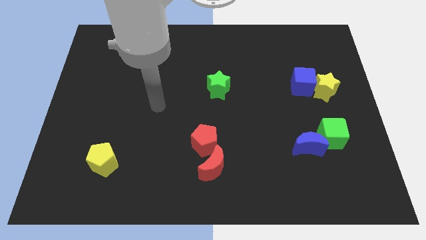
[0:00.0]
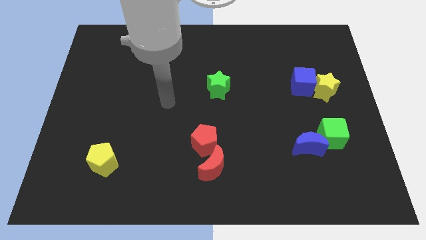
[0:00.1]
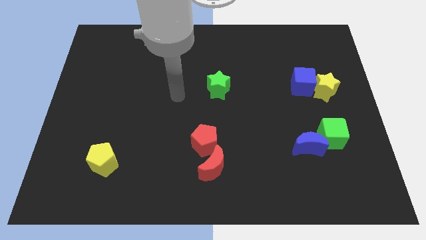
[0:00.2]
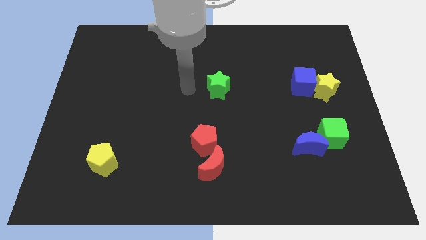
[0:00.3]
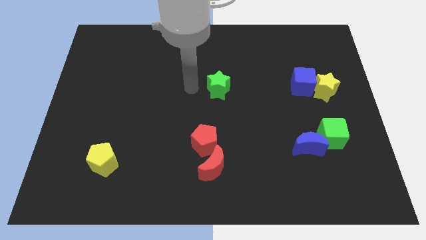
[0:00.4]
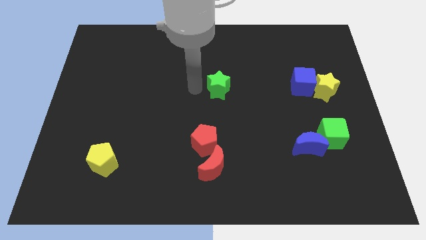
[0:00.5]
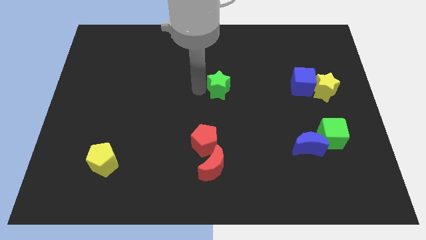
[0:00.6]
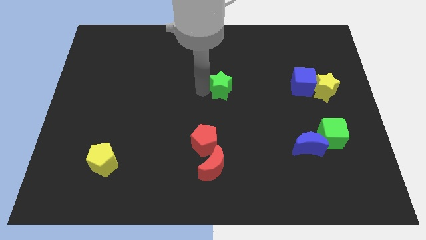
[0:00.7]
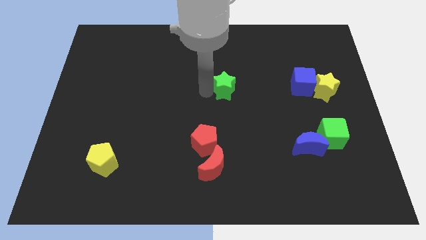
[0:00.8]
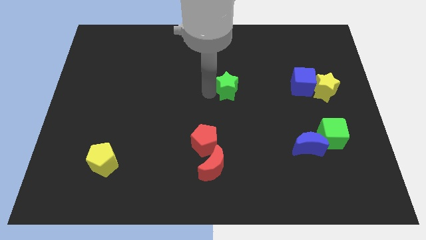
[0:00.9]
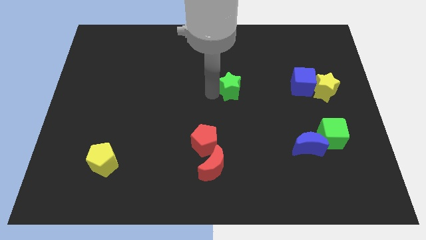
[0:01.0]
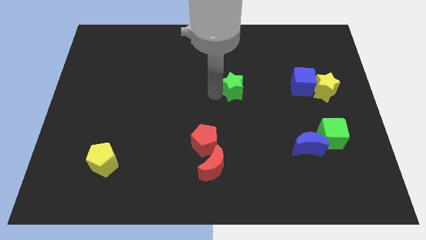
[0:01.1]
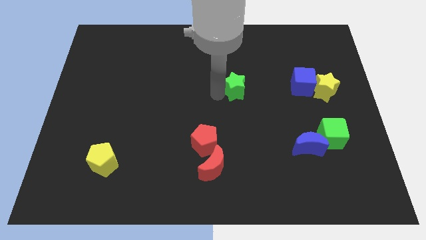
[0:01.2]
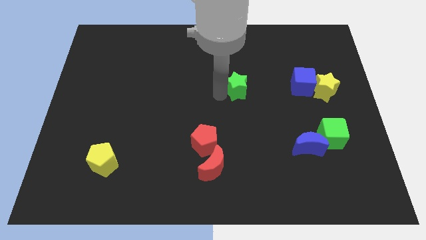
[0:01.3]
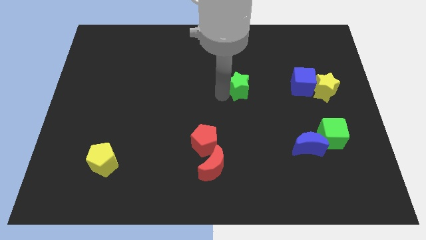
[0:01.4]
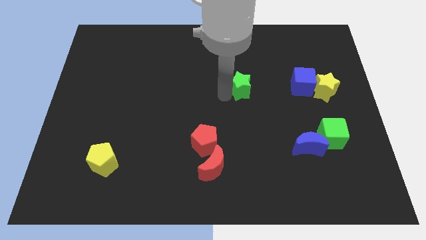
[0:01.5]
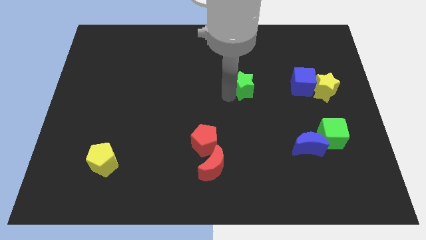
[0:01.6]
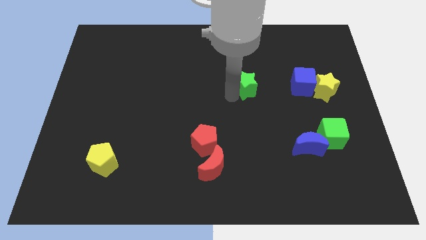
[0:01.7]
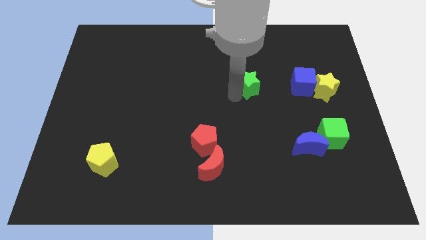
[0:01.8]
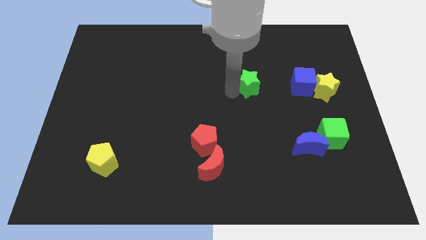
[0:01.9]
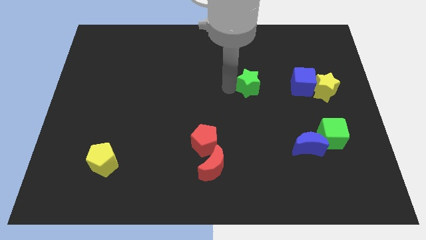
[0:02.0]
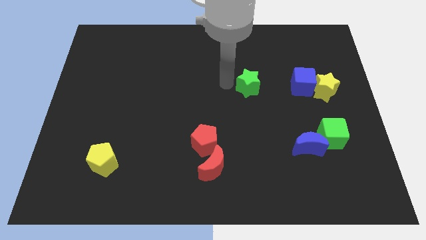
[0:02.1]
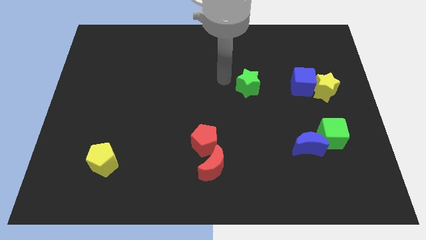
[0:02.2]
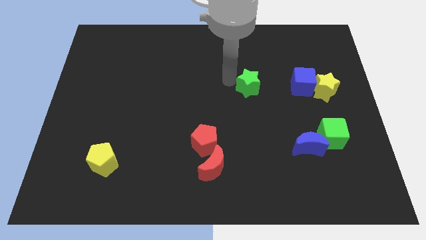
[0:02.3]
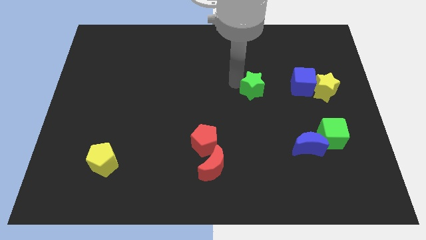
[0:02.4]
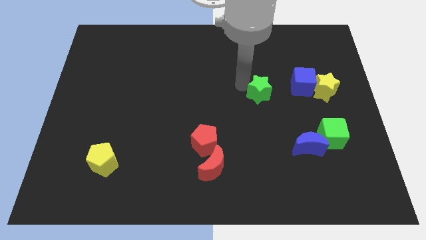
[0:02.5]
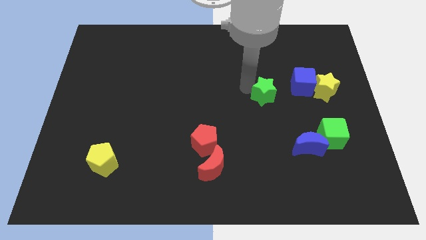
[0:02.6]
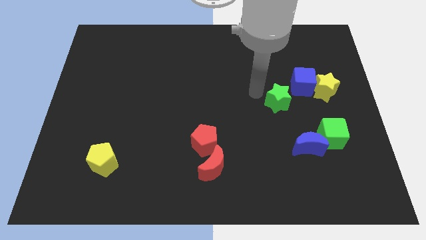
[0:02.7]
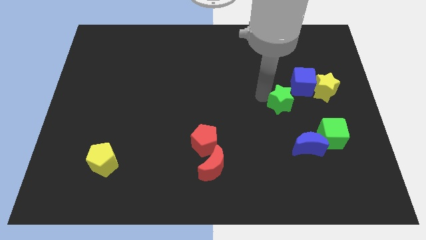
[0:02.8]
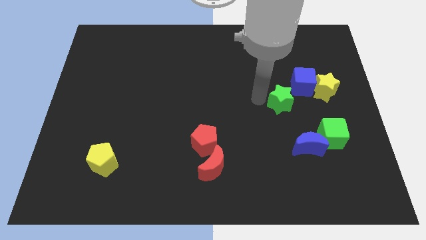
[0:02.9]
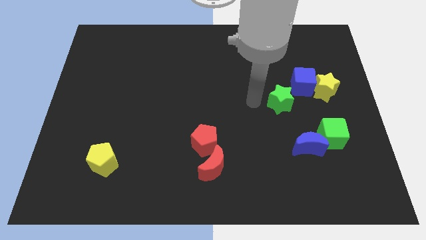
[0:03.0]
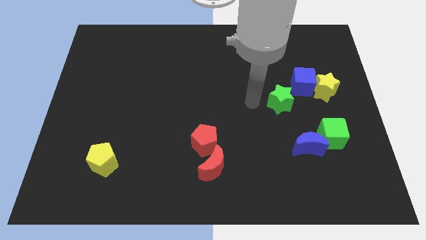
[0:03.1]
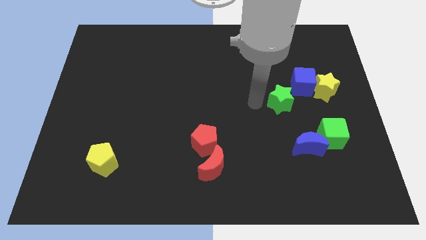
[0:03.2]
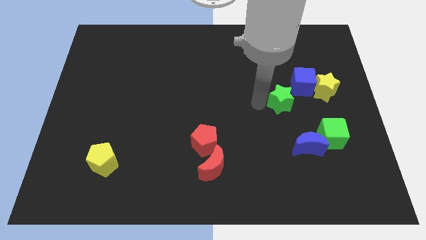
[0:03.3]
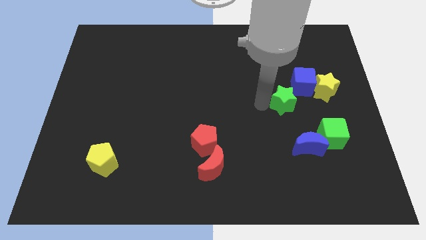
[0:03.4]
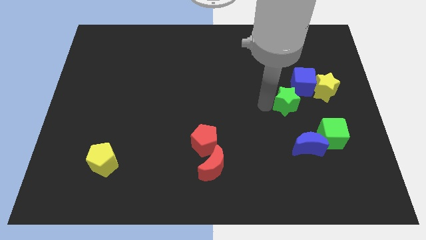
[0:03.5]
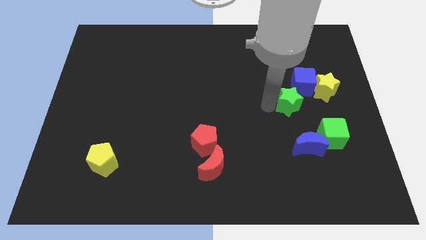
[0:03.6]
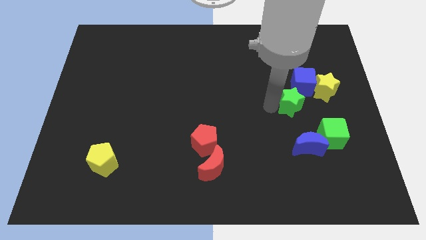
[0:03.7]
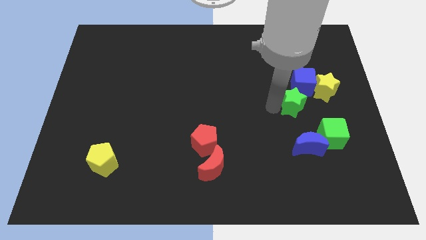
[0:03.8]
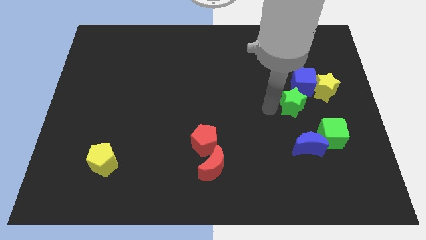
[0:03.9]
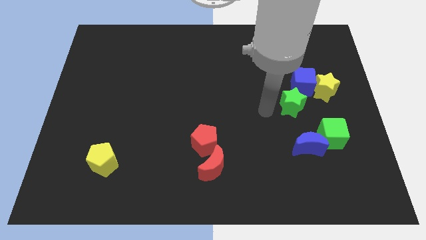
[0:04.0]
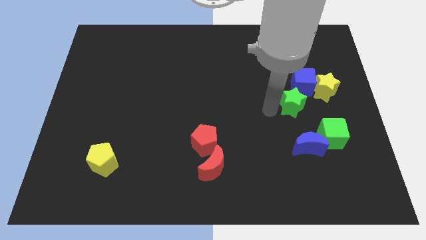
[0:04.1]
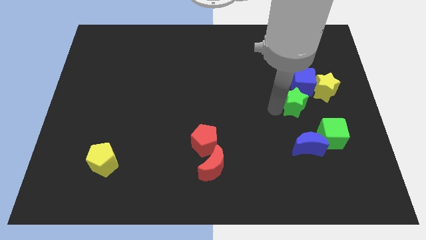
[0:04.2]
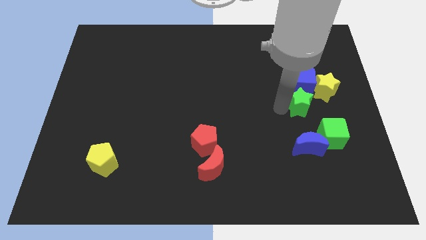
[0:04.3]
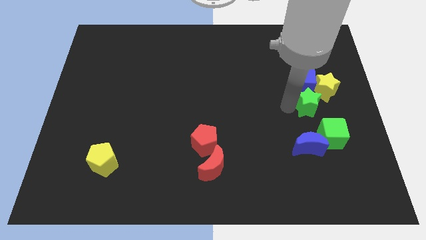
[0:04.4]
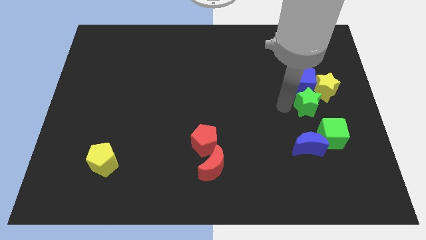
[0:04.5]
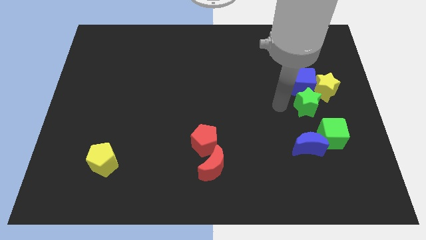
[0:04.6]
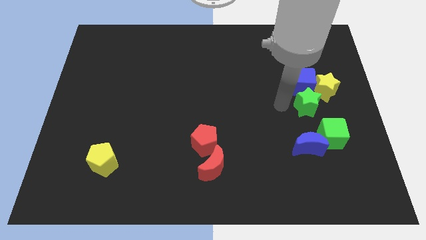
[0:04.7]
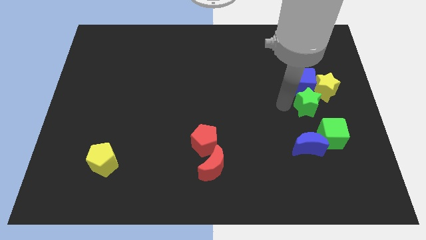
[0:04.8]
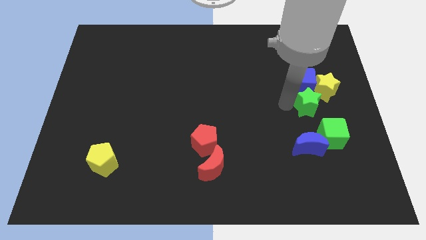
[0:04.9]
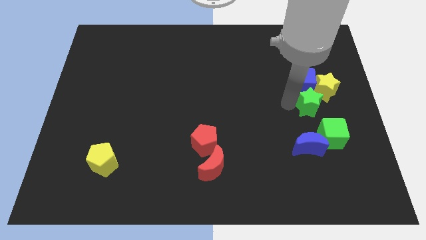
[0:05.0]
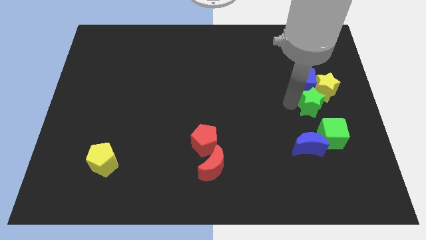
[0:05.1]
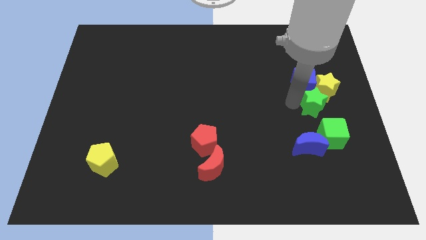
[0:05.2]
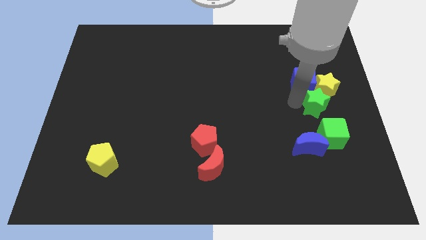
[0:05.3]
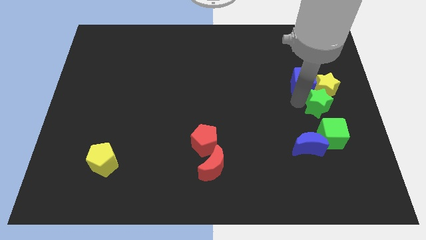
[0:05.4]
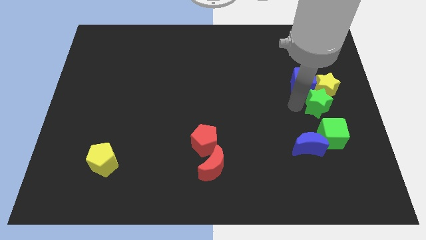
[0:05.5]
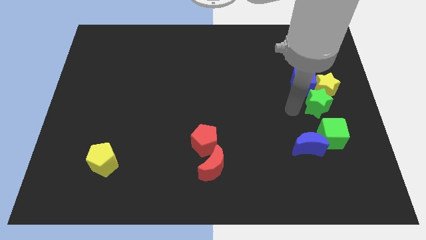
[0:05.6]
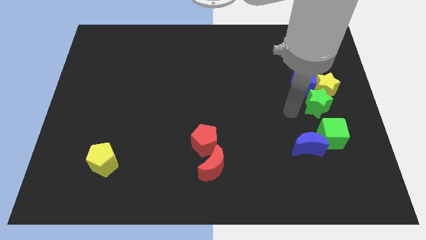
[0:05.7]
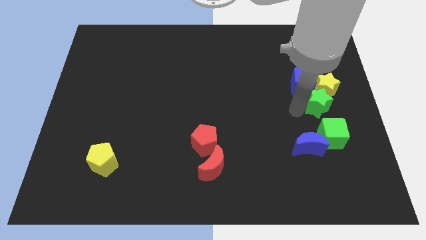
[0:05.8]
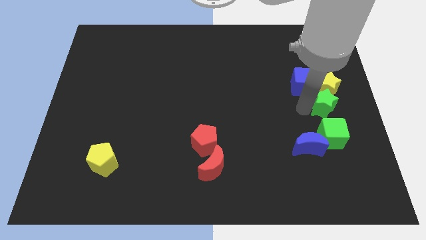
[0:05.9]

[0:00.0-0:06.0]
slide the green star to the right side of the board

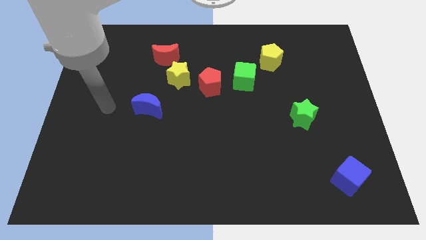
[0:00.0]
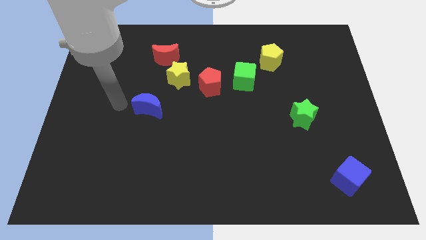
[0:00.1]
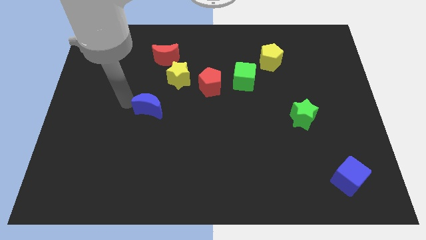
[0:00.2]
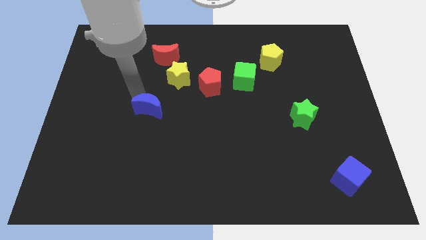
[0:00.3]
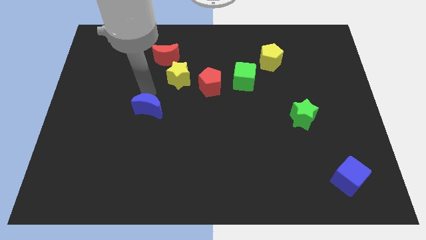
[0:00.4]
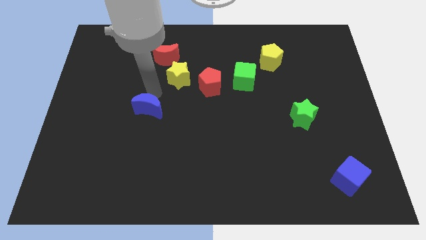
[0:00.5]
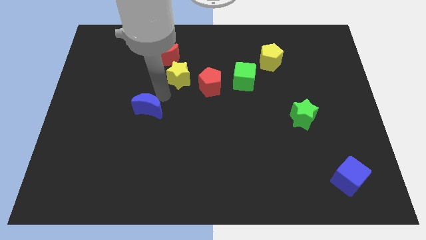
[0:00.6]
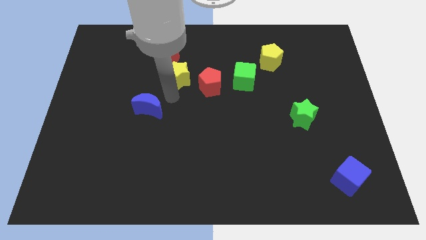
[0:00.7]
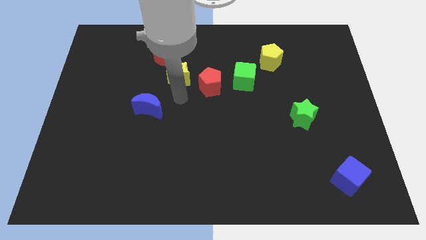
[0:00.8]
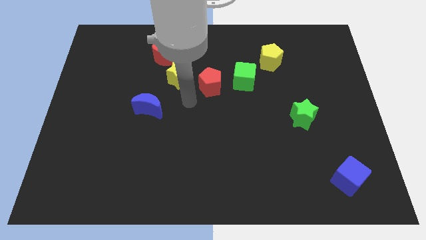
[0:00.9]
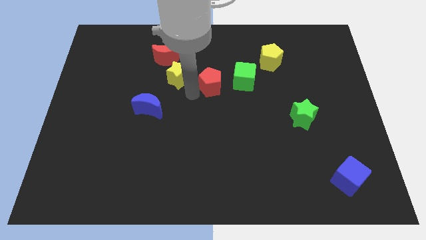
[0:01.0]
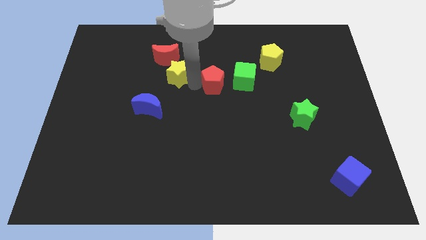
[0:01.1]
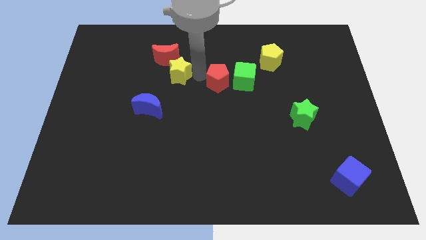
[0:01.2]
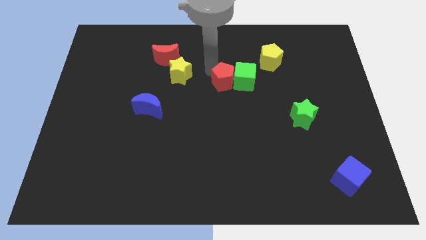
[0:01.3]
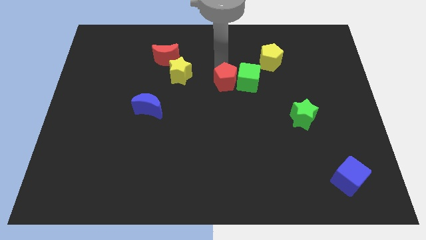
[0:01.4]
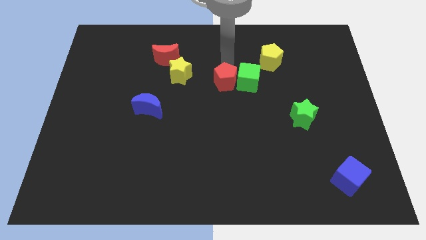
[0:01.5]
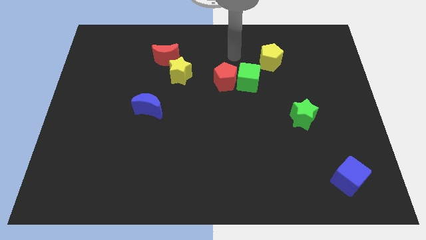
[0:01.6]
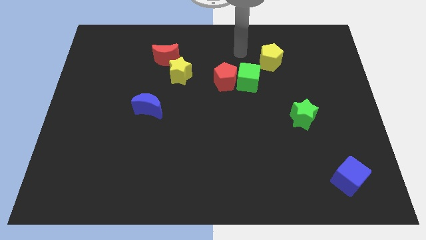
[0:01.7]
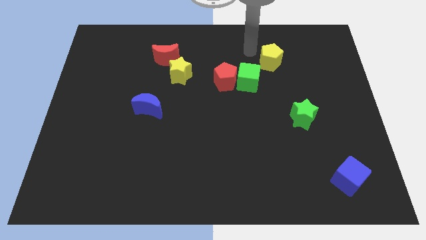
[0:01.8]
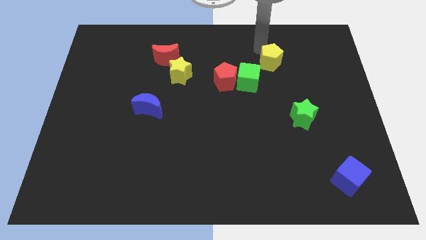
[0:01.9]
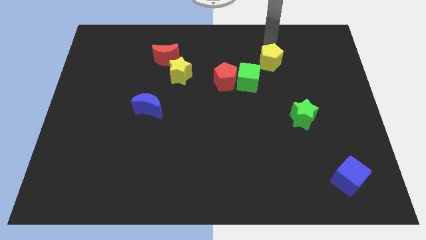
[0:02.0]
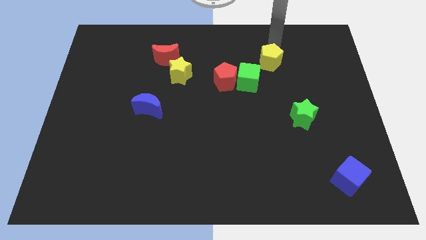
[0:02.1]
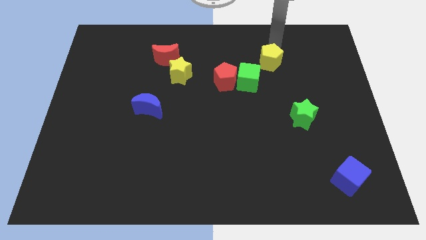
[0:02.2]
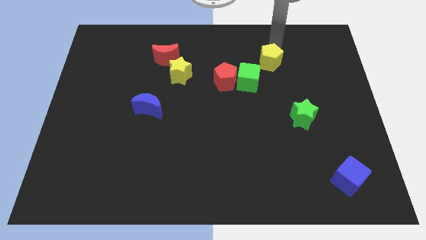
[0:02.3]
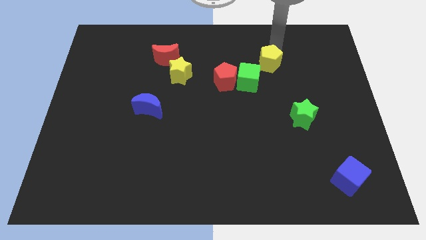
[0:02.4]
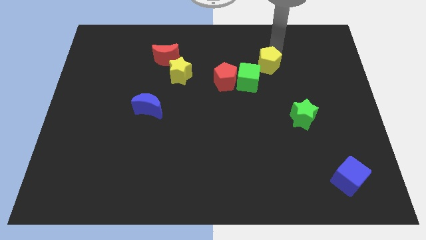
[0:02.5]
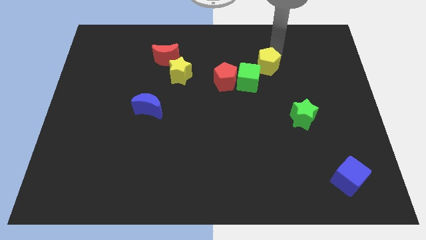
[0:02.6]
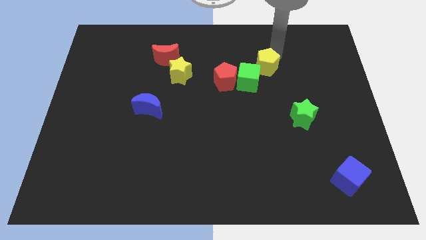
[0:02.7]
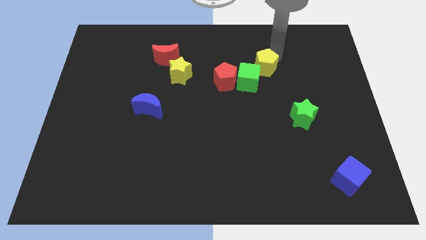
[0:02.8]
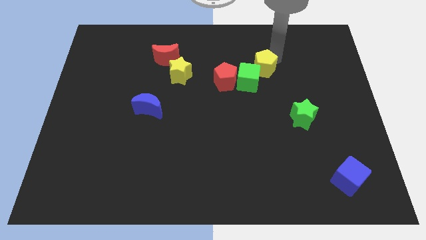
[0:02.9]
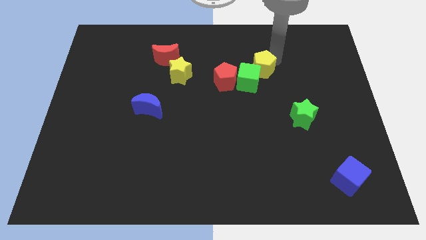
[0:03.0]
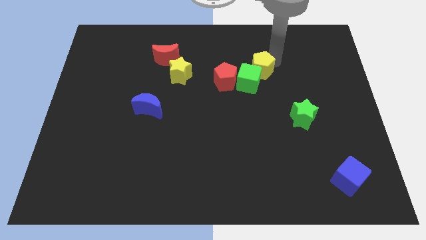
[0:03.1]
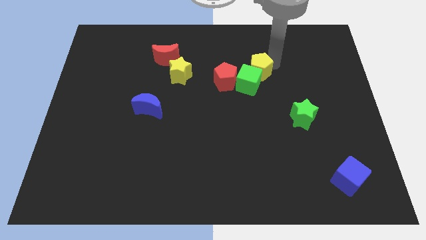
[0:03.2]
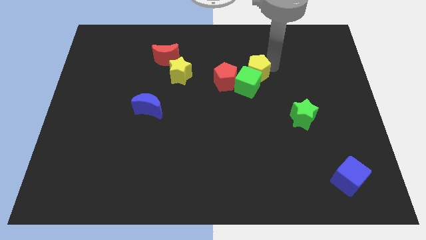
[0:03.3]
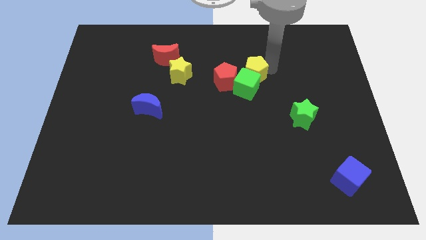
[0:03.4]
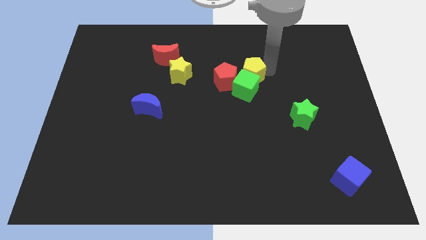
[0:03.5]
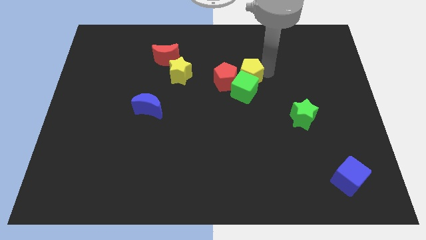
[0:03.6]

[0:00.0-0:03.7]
slide the yellow pentagon to the middle of the board
